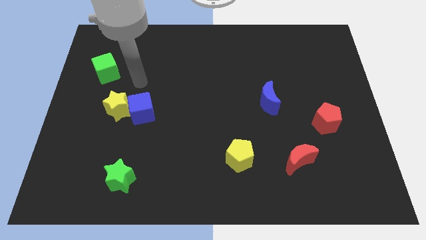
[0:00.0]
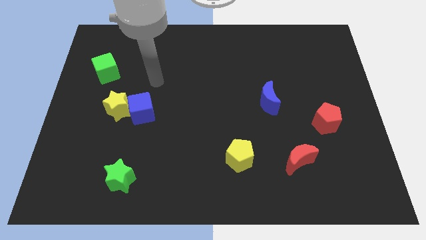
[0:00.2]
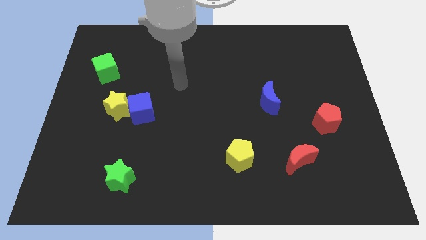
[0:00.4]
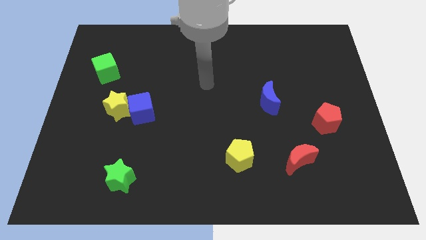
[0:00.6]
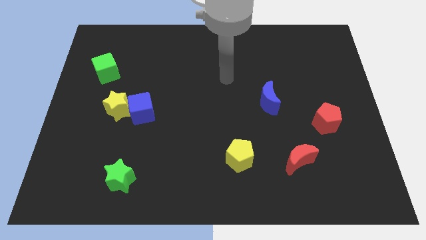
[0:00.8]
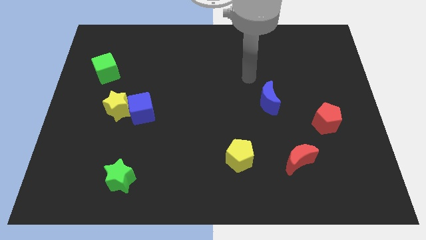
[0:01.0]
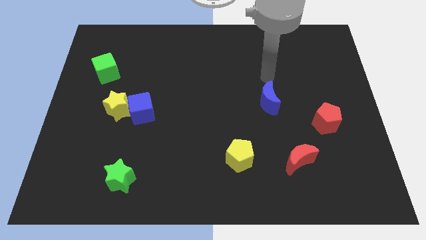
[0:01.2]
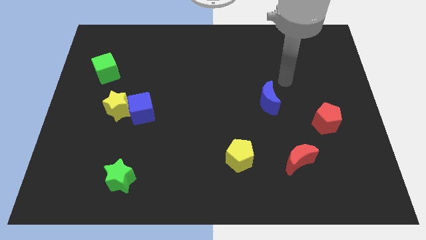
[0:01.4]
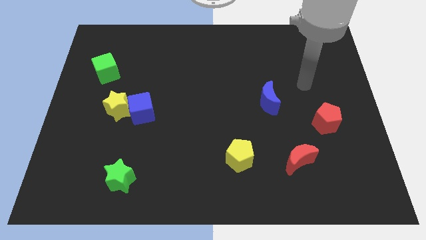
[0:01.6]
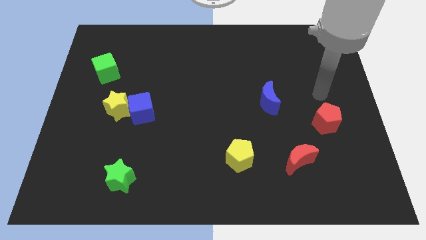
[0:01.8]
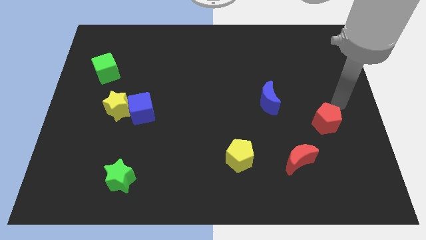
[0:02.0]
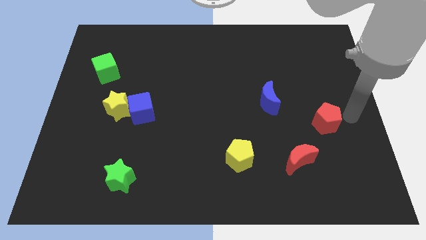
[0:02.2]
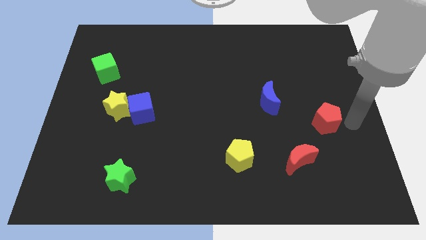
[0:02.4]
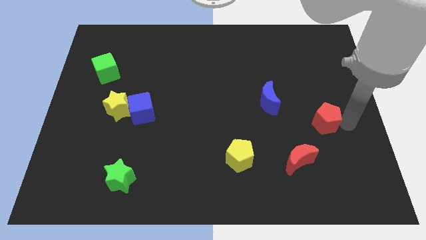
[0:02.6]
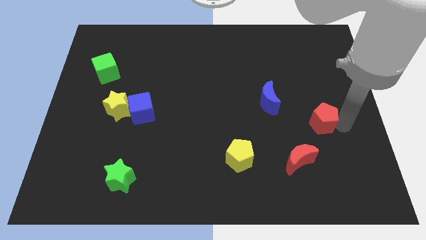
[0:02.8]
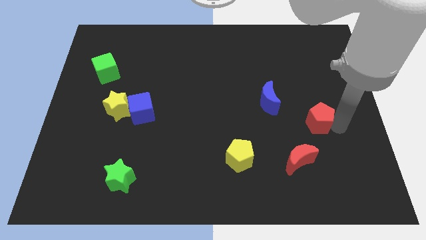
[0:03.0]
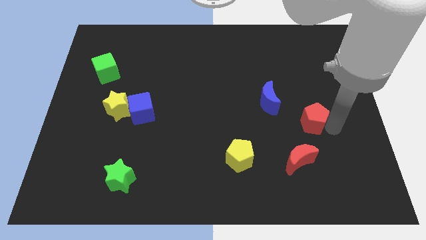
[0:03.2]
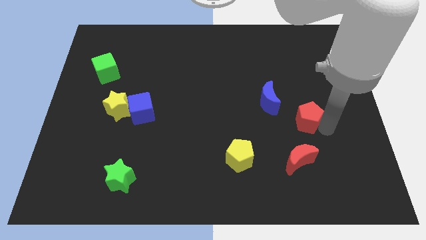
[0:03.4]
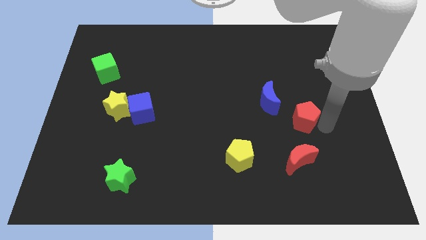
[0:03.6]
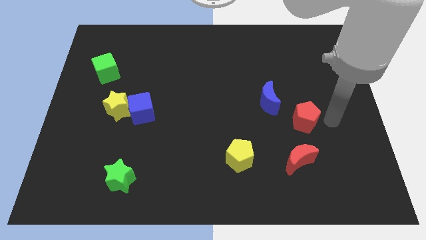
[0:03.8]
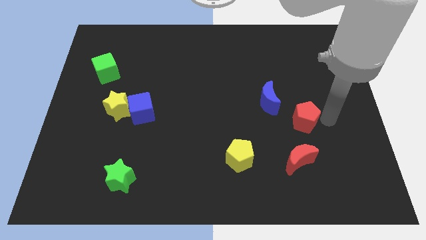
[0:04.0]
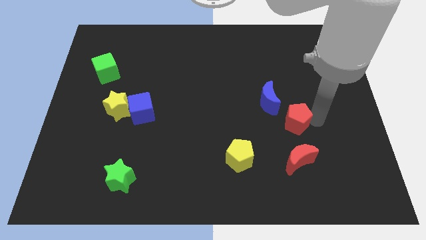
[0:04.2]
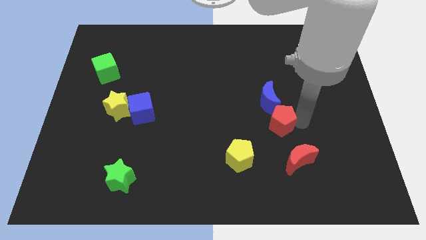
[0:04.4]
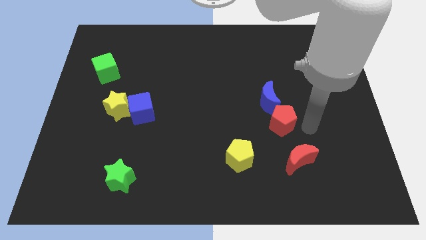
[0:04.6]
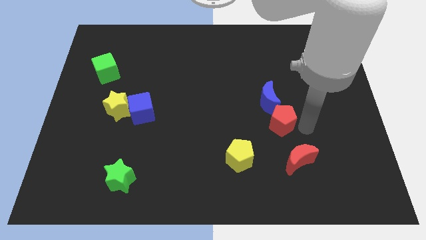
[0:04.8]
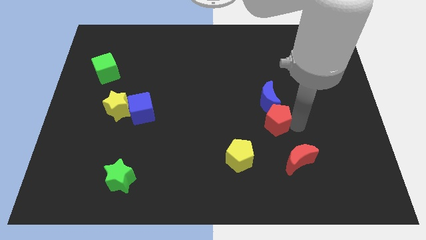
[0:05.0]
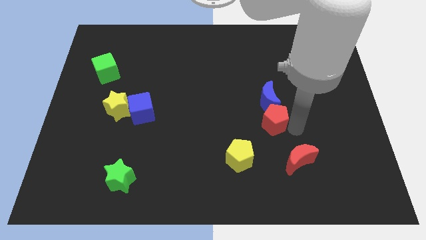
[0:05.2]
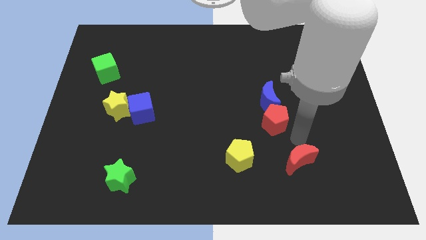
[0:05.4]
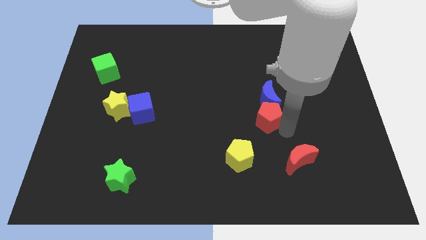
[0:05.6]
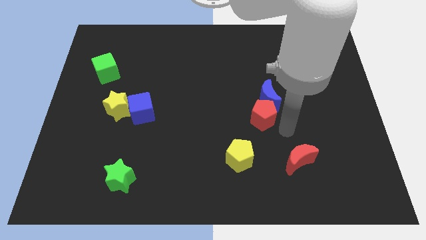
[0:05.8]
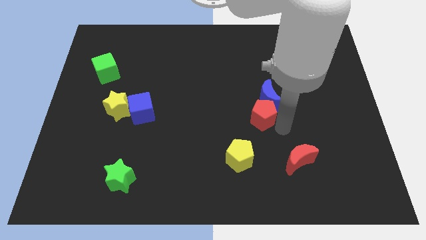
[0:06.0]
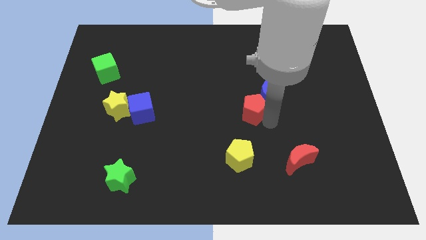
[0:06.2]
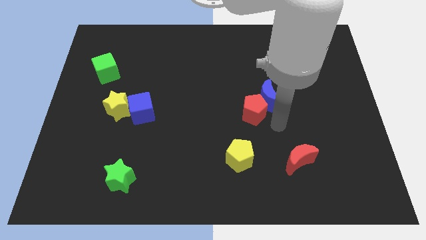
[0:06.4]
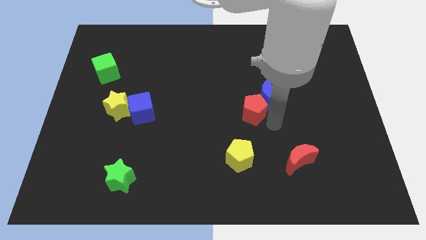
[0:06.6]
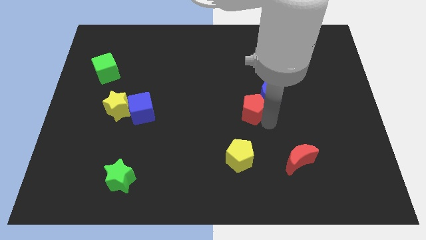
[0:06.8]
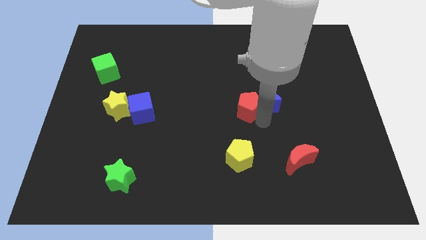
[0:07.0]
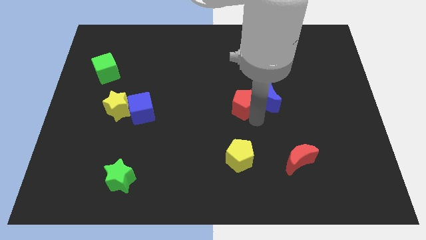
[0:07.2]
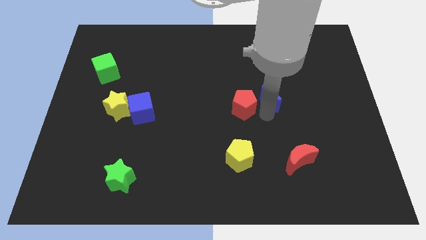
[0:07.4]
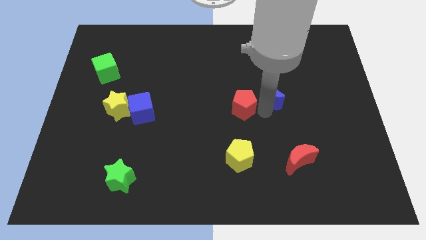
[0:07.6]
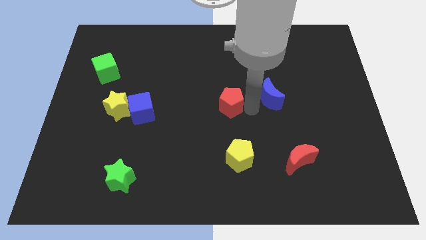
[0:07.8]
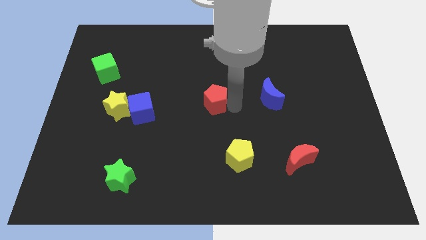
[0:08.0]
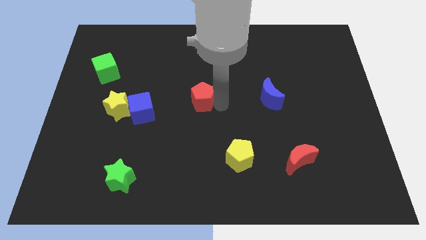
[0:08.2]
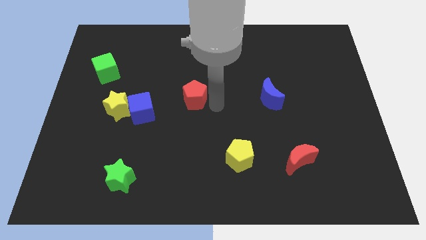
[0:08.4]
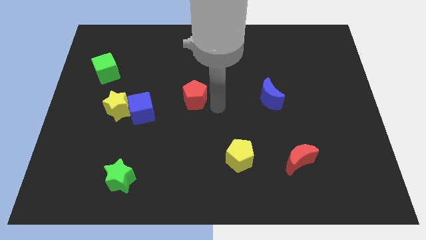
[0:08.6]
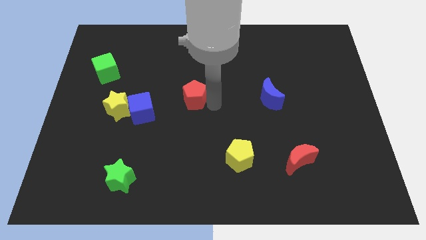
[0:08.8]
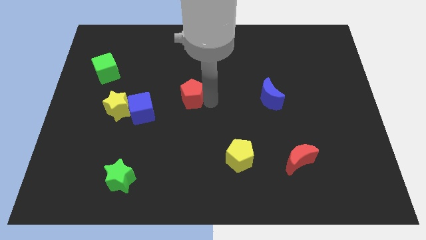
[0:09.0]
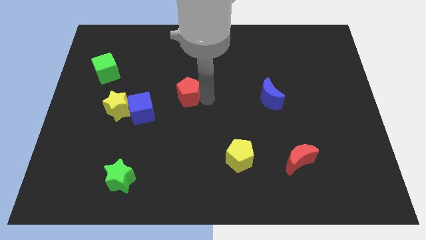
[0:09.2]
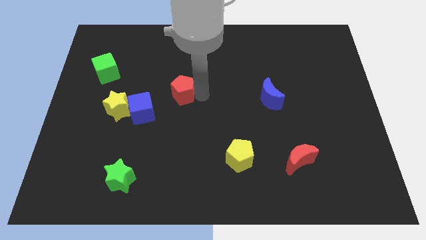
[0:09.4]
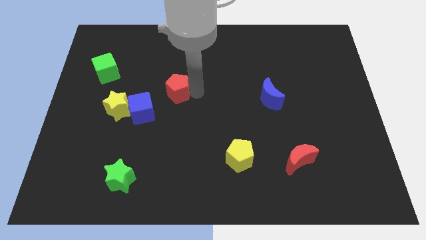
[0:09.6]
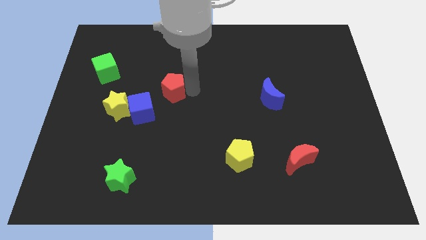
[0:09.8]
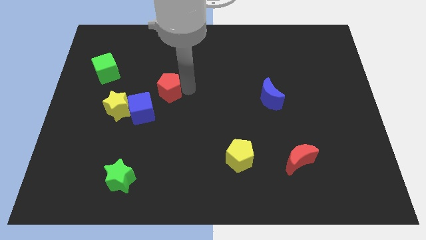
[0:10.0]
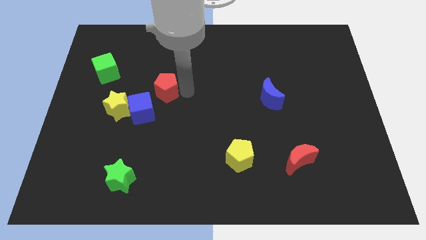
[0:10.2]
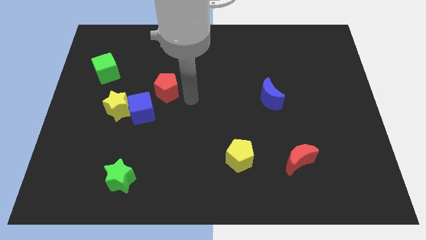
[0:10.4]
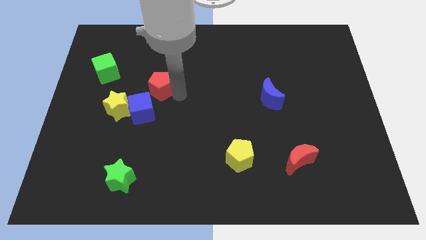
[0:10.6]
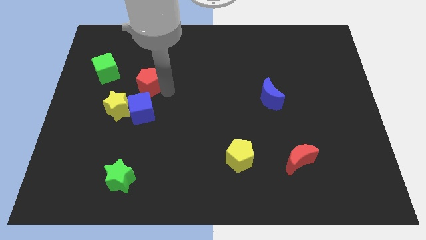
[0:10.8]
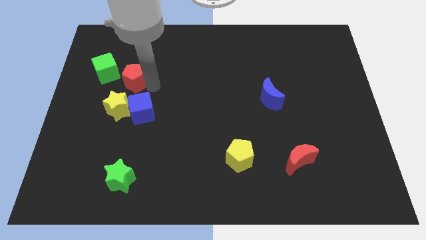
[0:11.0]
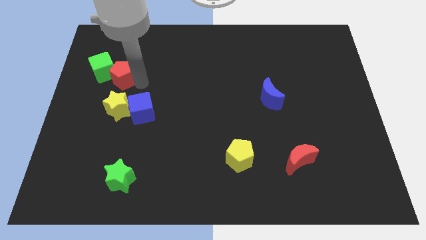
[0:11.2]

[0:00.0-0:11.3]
move the red pentagon to the green cube
